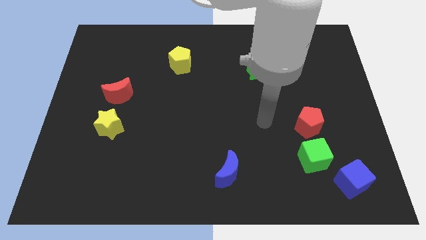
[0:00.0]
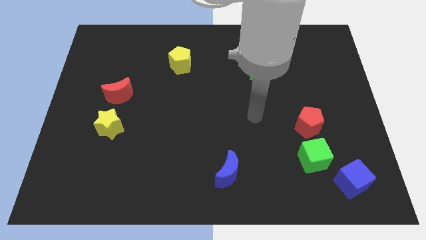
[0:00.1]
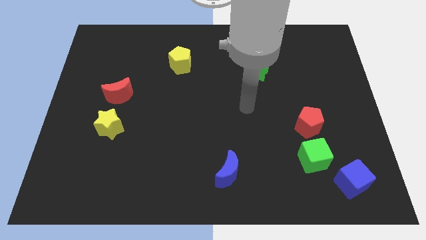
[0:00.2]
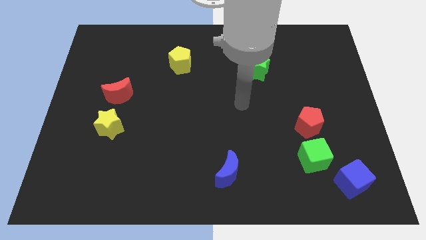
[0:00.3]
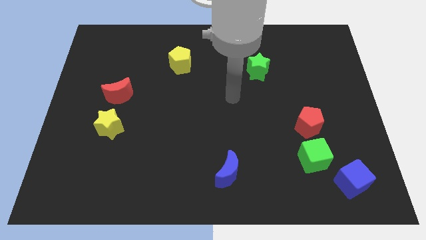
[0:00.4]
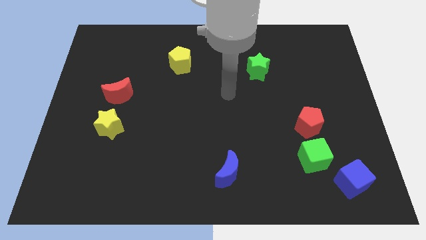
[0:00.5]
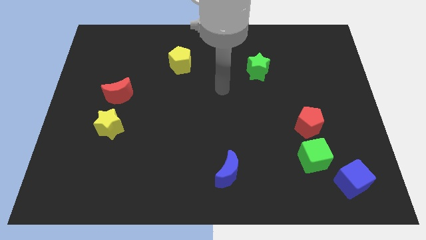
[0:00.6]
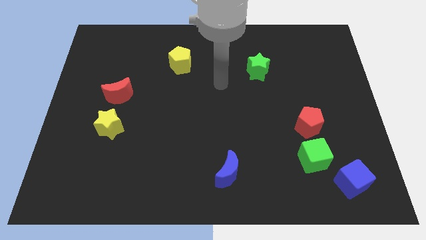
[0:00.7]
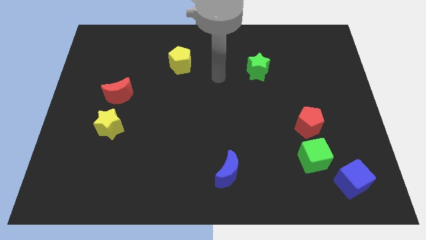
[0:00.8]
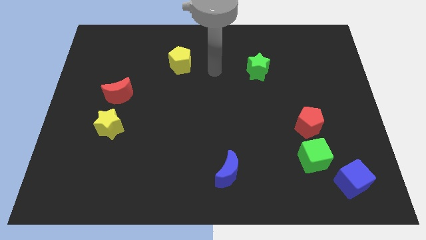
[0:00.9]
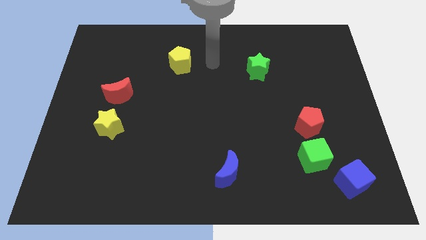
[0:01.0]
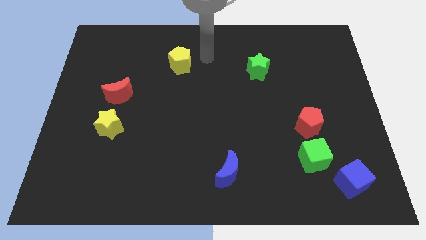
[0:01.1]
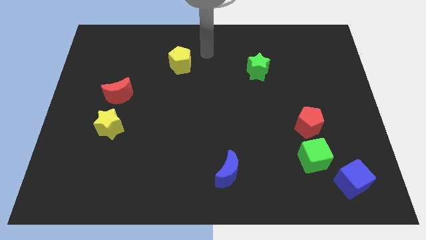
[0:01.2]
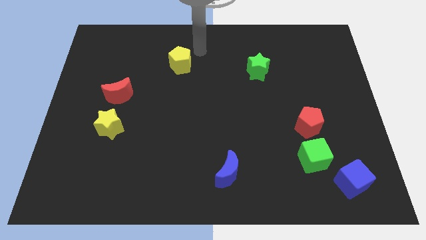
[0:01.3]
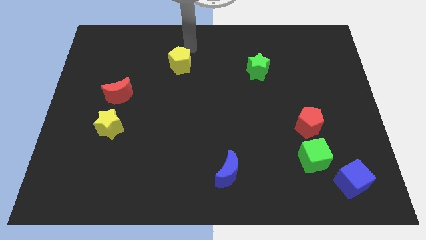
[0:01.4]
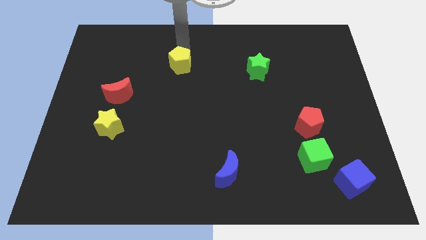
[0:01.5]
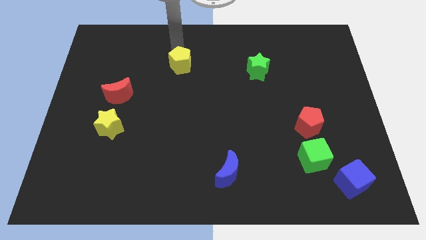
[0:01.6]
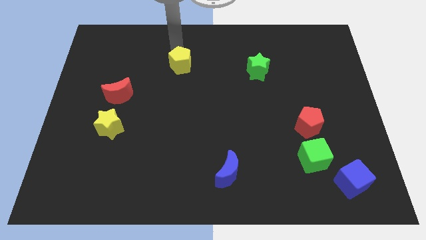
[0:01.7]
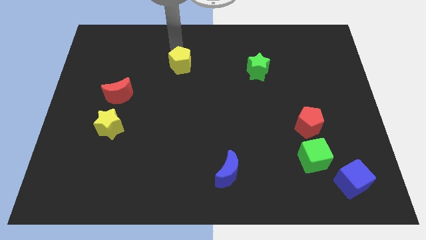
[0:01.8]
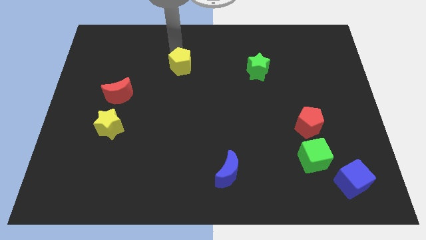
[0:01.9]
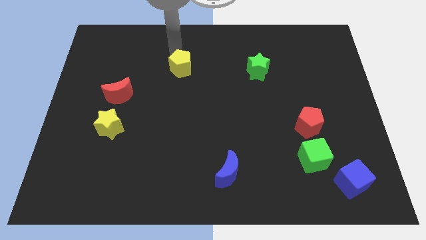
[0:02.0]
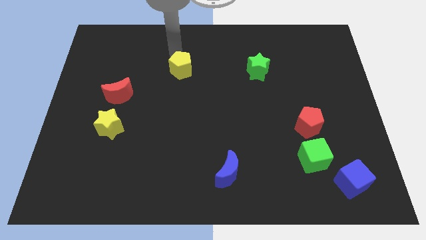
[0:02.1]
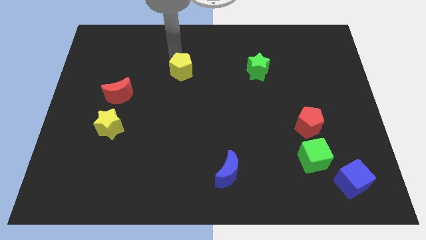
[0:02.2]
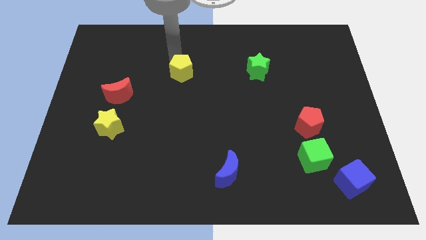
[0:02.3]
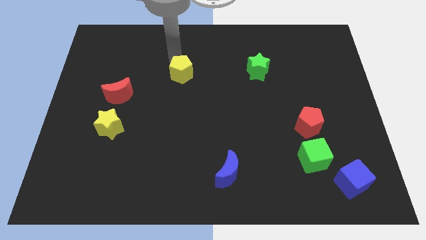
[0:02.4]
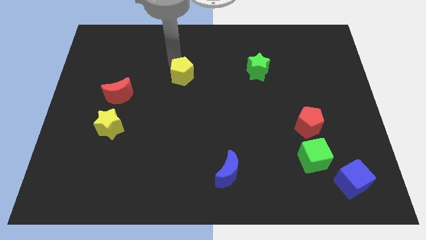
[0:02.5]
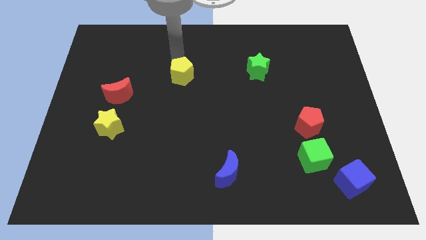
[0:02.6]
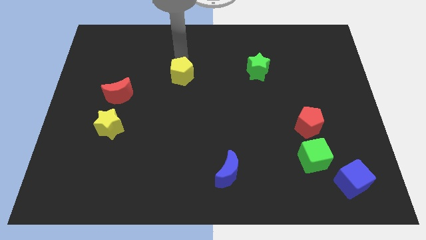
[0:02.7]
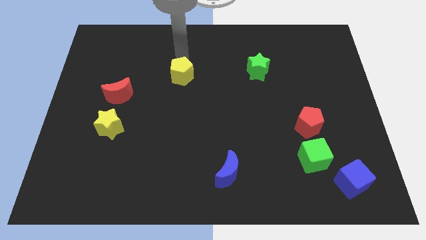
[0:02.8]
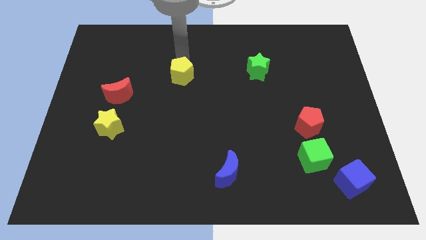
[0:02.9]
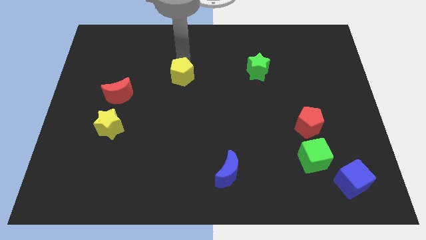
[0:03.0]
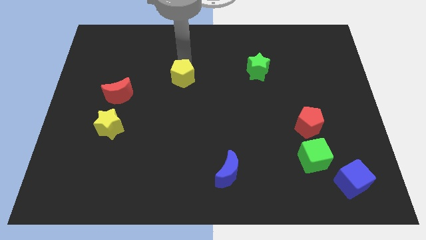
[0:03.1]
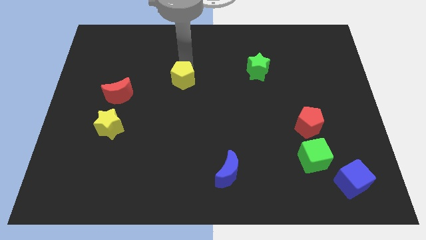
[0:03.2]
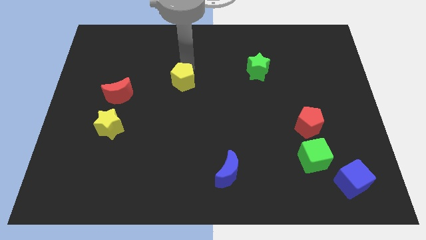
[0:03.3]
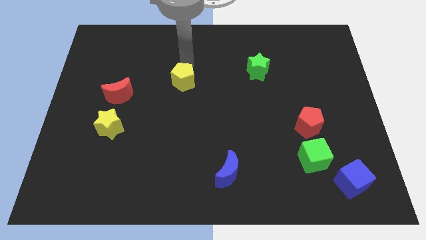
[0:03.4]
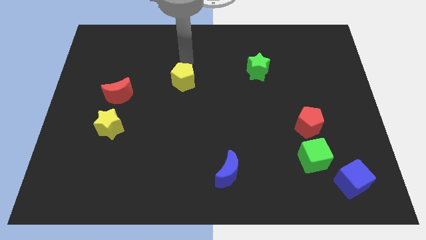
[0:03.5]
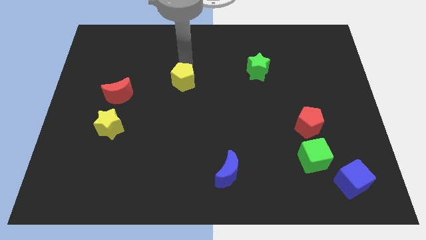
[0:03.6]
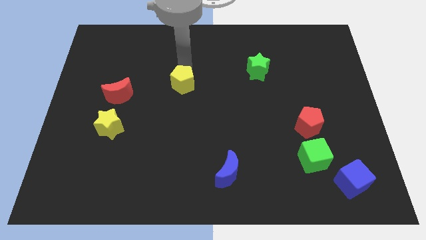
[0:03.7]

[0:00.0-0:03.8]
slide the yellow pentagon a little down

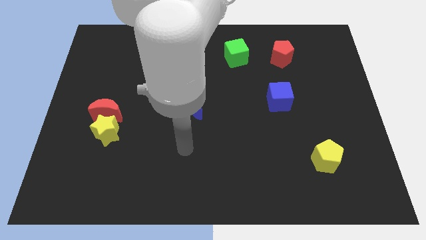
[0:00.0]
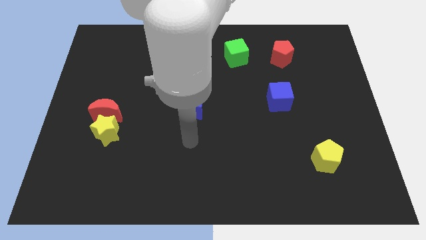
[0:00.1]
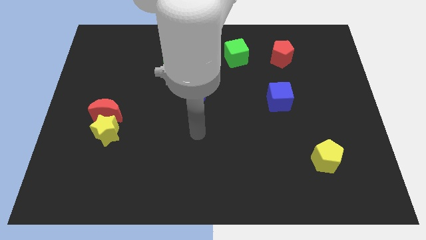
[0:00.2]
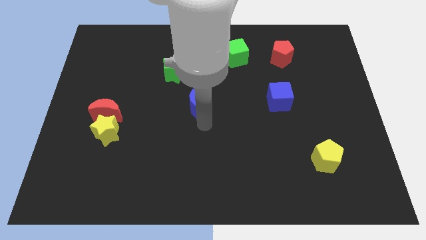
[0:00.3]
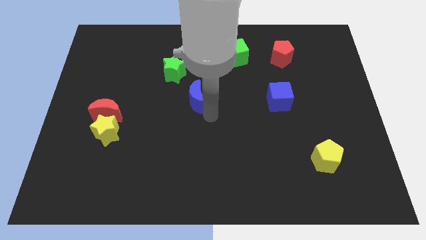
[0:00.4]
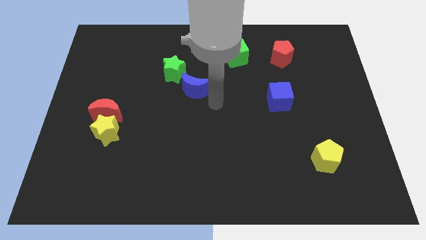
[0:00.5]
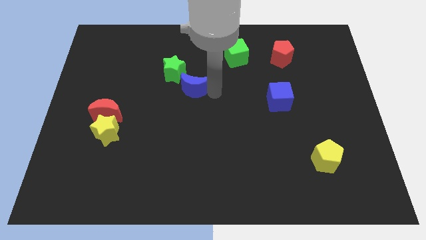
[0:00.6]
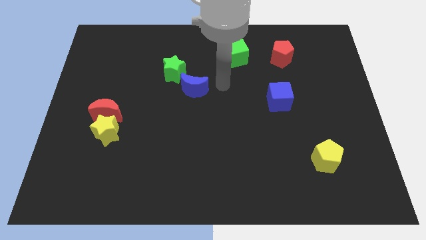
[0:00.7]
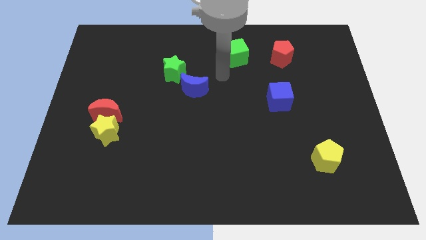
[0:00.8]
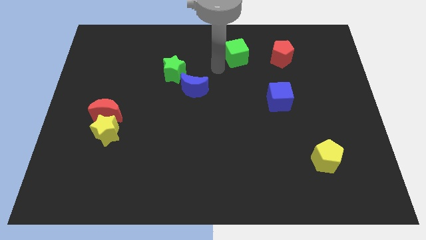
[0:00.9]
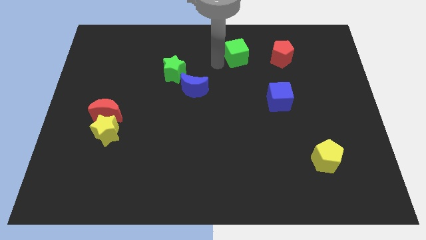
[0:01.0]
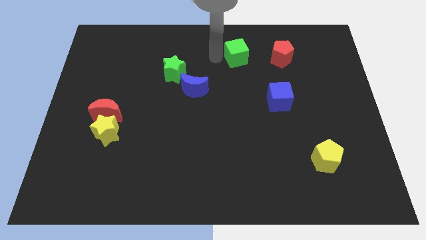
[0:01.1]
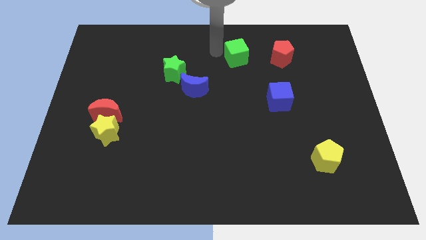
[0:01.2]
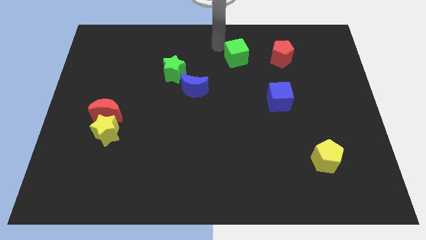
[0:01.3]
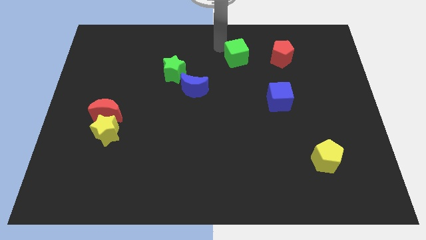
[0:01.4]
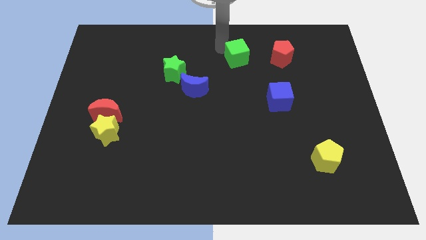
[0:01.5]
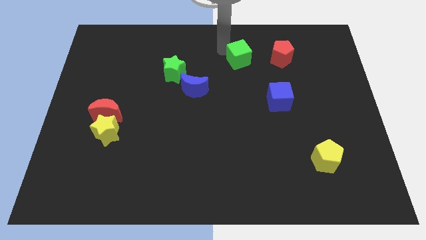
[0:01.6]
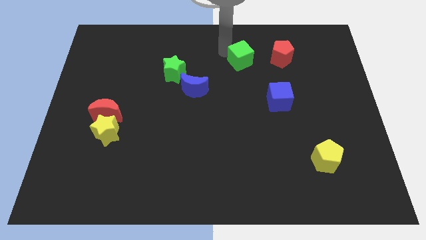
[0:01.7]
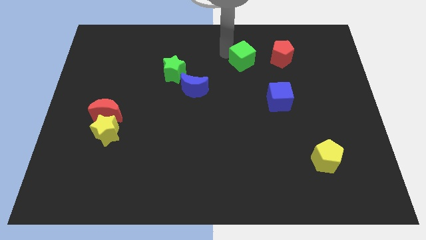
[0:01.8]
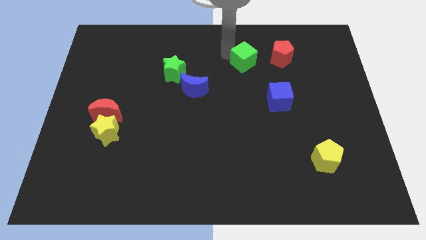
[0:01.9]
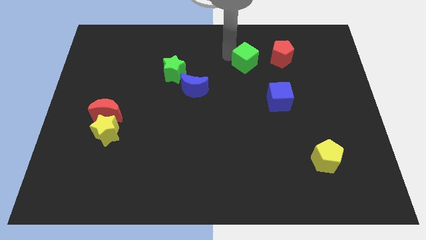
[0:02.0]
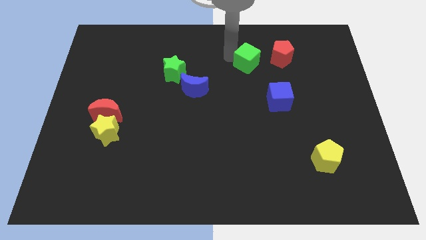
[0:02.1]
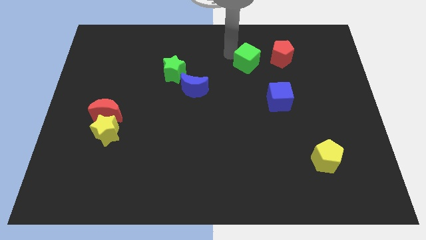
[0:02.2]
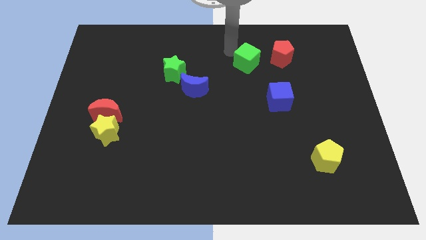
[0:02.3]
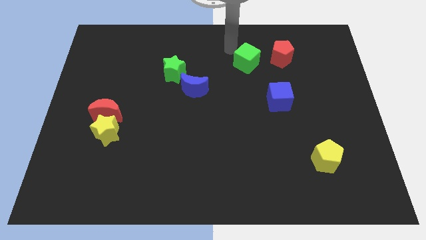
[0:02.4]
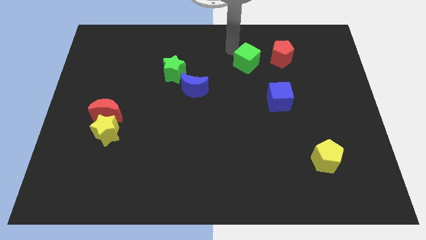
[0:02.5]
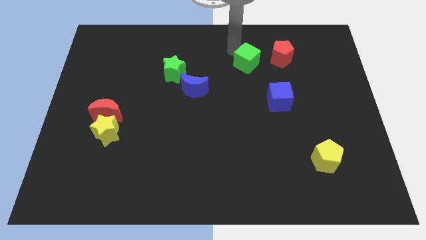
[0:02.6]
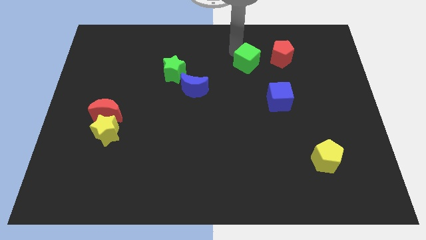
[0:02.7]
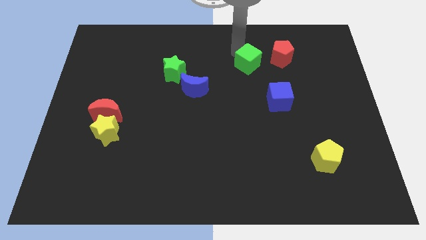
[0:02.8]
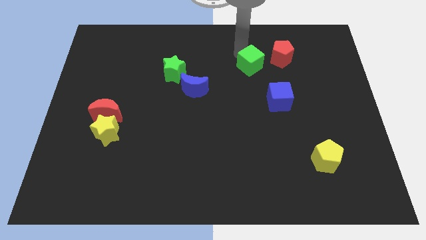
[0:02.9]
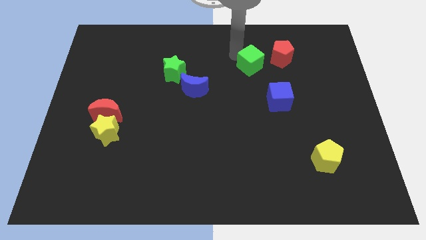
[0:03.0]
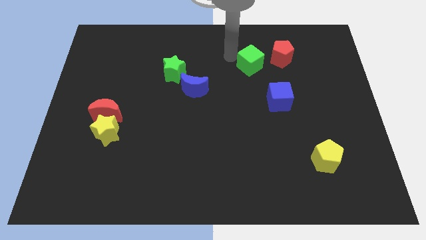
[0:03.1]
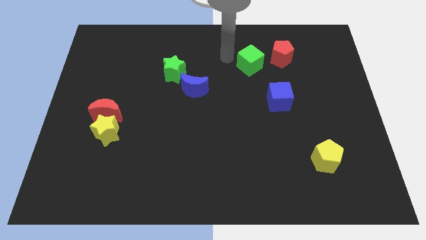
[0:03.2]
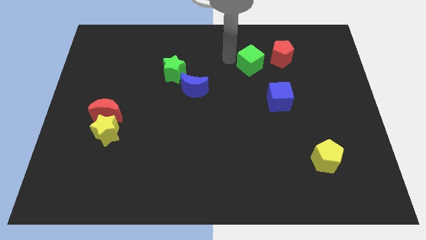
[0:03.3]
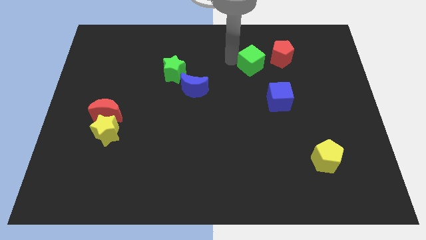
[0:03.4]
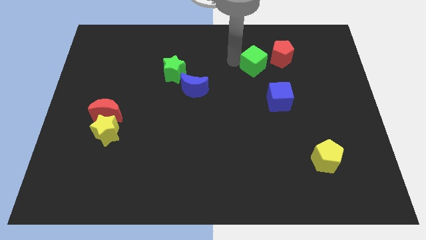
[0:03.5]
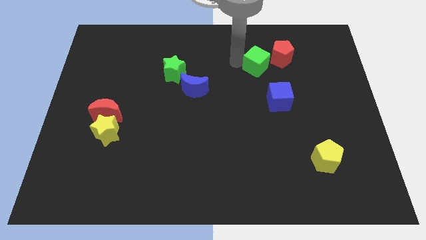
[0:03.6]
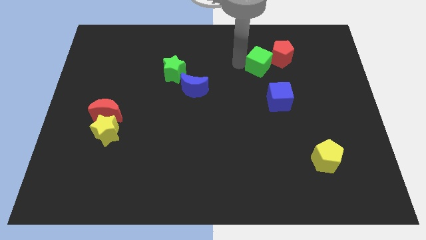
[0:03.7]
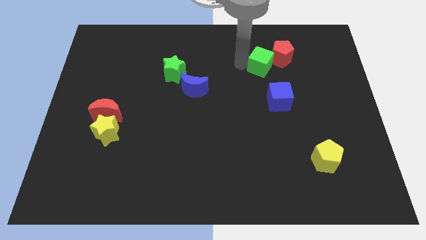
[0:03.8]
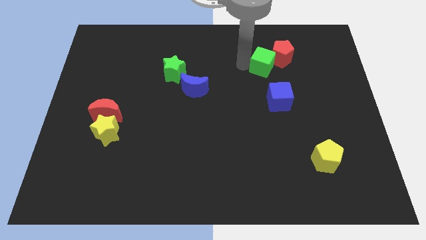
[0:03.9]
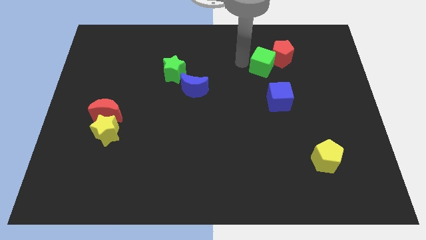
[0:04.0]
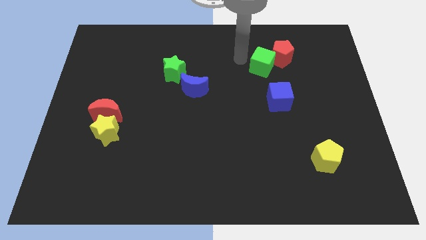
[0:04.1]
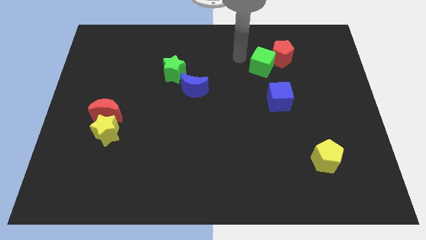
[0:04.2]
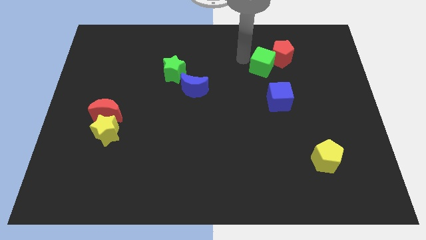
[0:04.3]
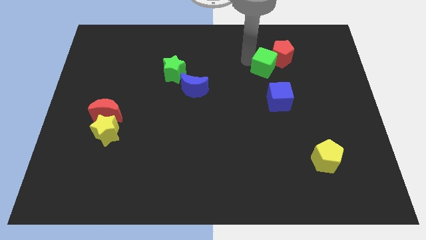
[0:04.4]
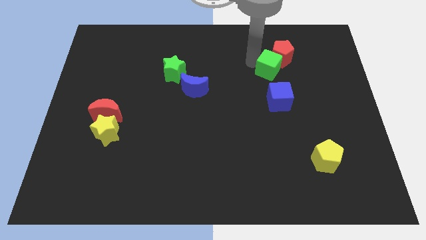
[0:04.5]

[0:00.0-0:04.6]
move the green cube to the right a little bit
